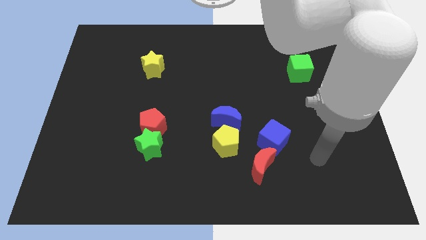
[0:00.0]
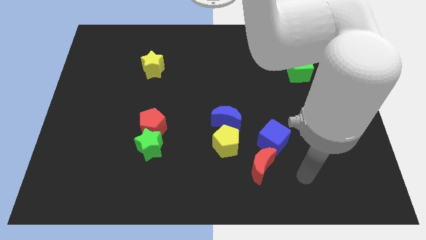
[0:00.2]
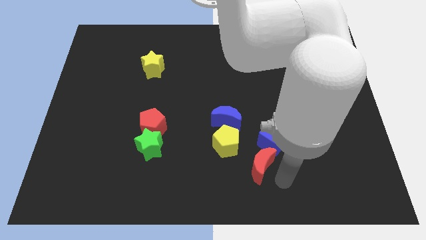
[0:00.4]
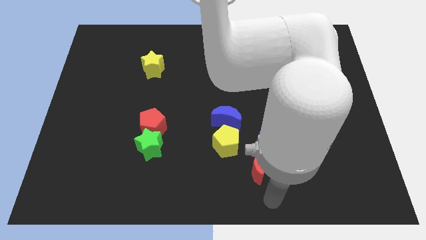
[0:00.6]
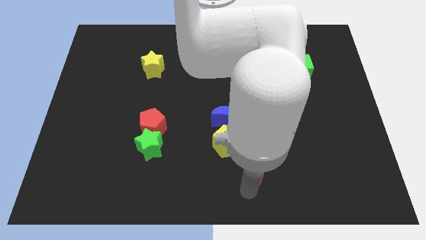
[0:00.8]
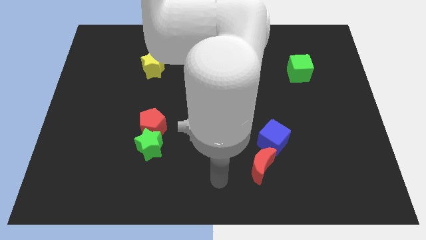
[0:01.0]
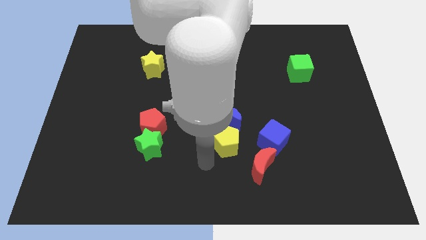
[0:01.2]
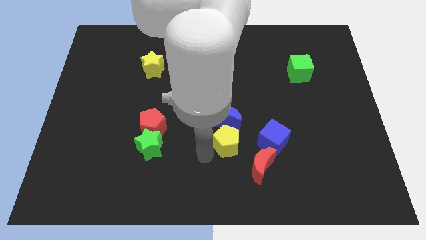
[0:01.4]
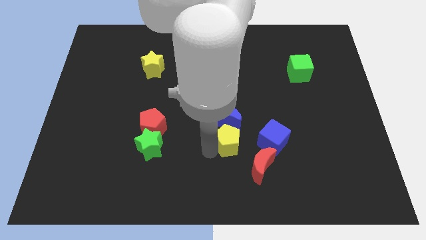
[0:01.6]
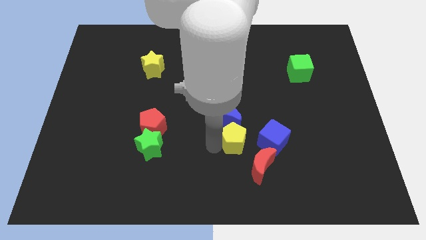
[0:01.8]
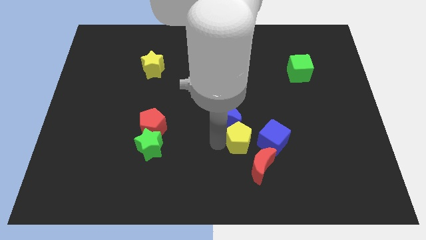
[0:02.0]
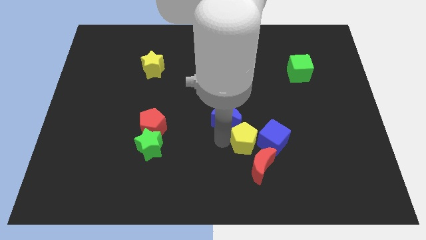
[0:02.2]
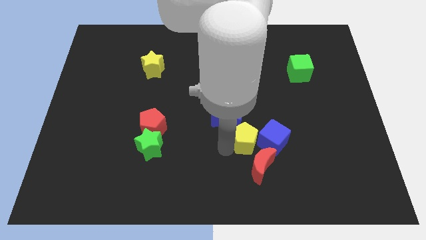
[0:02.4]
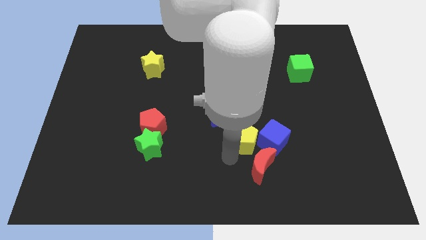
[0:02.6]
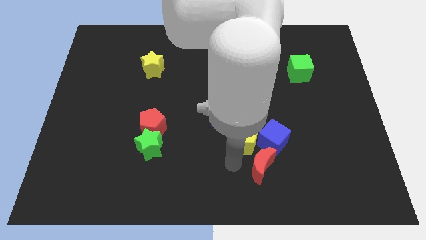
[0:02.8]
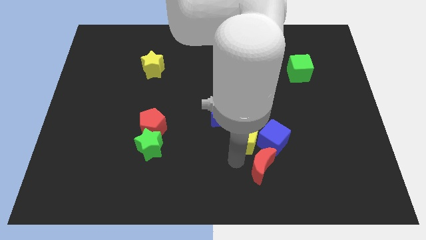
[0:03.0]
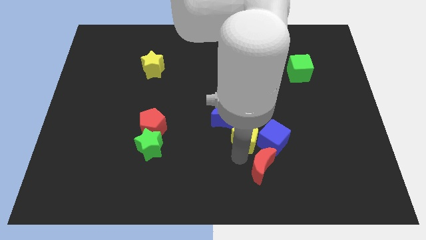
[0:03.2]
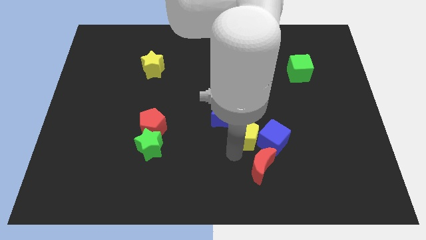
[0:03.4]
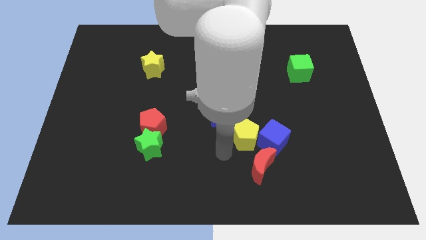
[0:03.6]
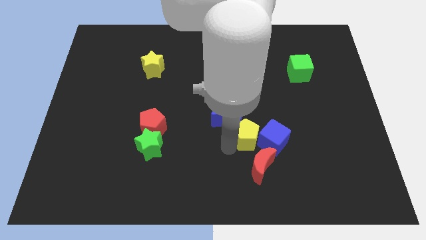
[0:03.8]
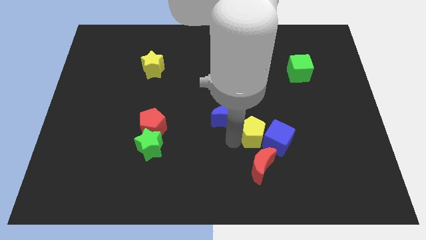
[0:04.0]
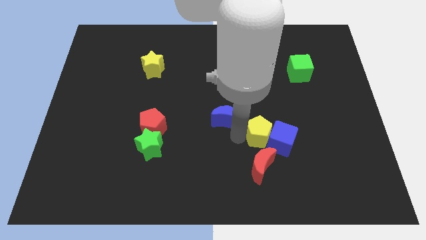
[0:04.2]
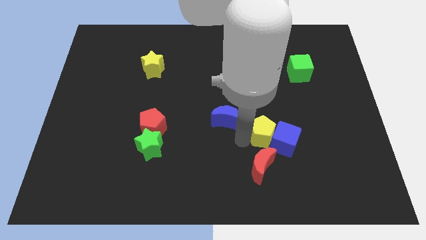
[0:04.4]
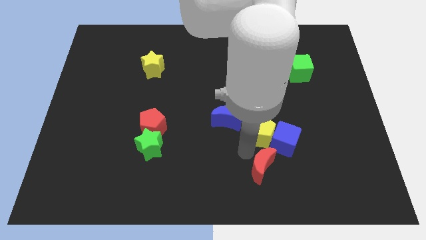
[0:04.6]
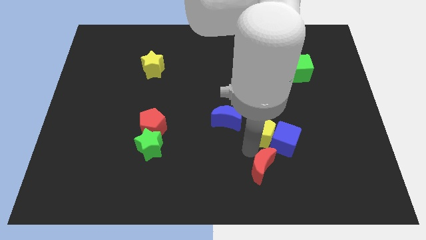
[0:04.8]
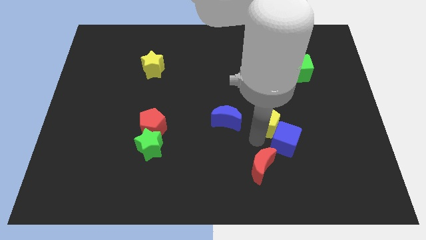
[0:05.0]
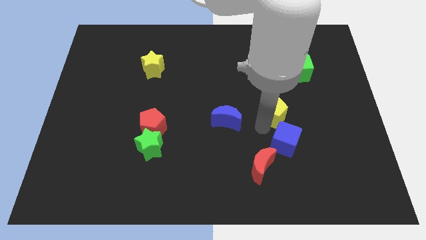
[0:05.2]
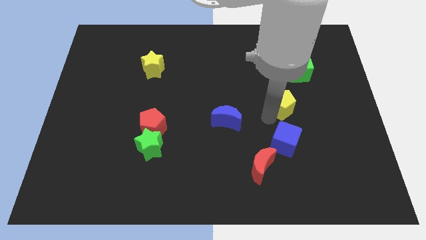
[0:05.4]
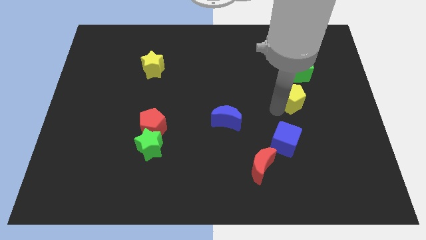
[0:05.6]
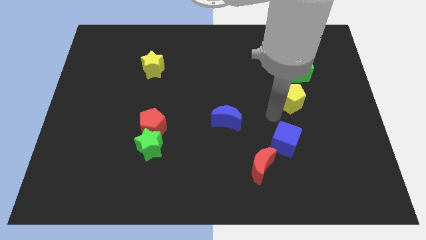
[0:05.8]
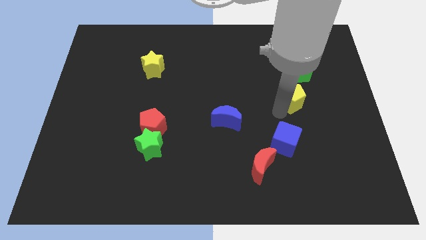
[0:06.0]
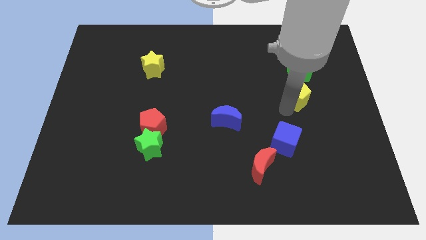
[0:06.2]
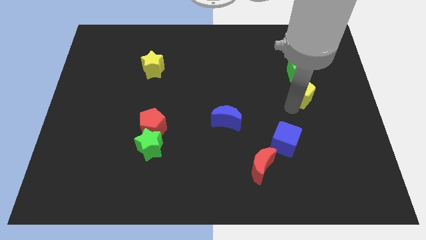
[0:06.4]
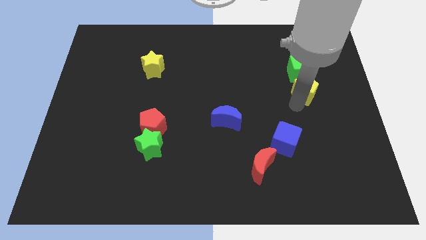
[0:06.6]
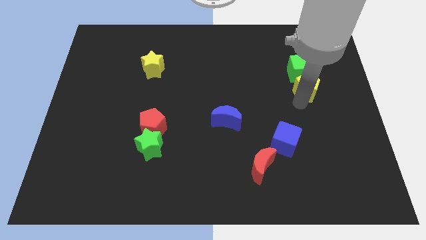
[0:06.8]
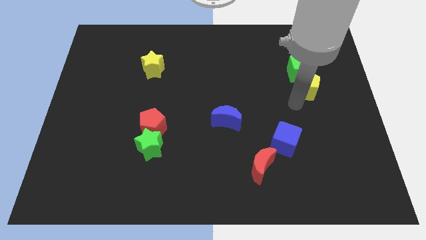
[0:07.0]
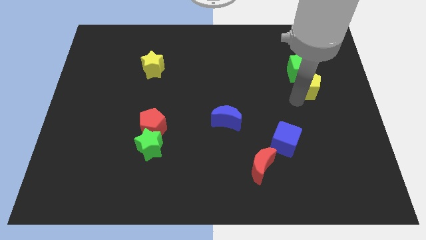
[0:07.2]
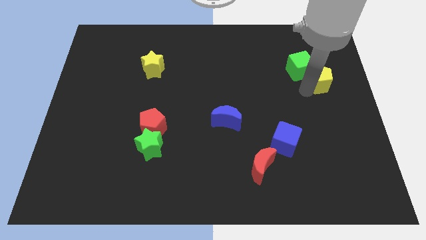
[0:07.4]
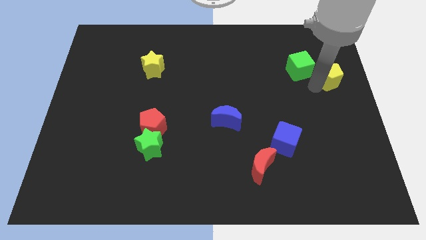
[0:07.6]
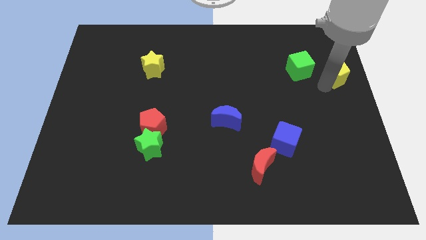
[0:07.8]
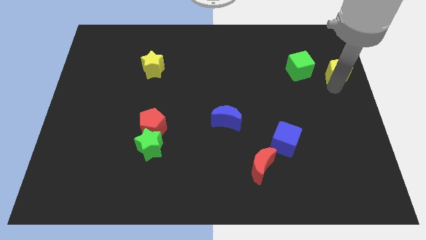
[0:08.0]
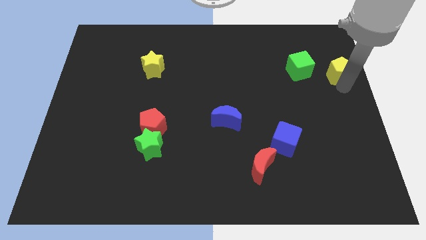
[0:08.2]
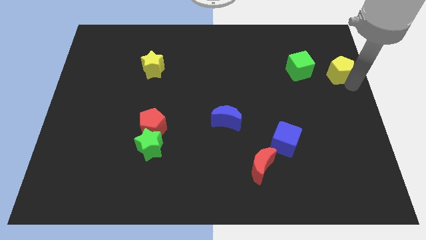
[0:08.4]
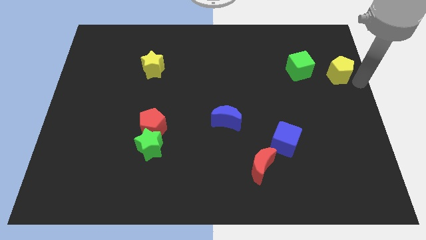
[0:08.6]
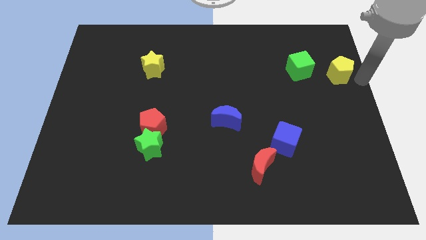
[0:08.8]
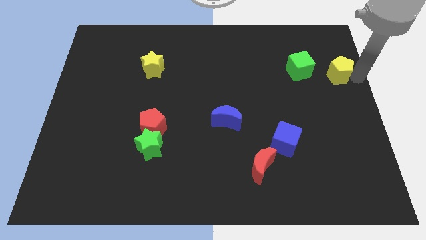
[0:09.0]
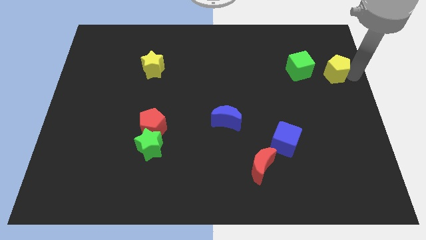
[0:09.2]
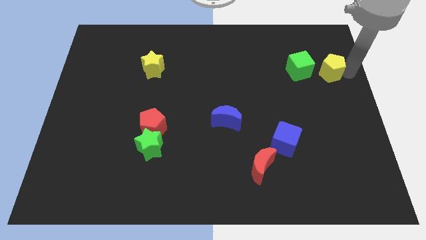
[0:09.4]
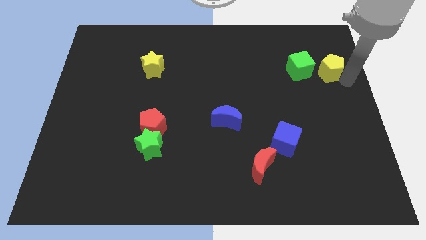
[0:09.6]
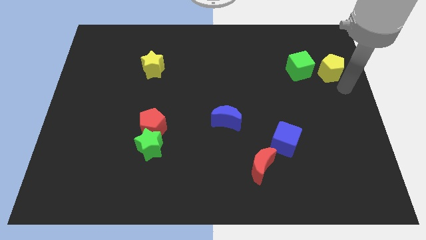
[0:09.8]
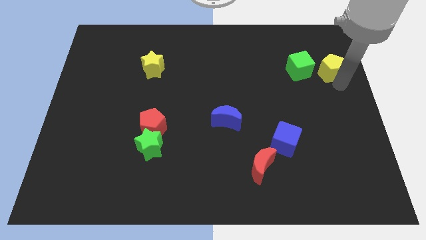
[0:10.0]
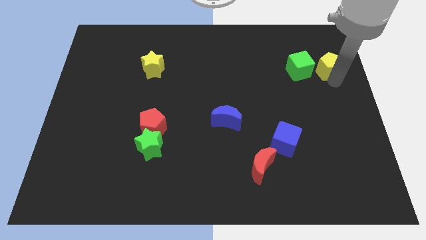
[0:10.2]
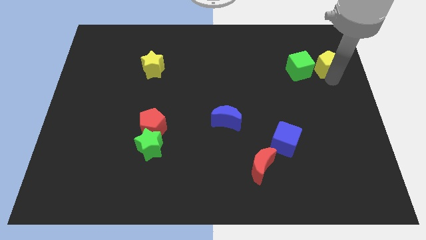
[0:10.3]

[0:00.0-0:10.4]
put the yellow pentagon to the top right side of the green cube

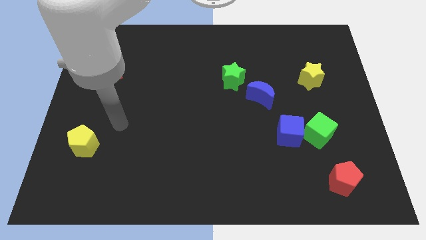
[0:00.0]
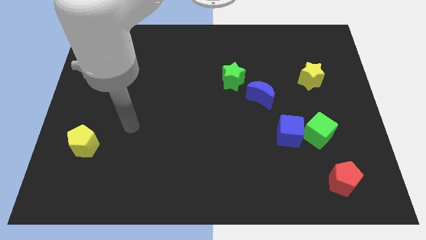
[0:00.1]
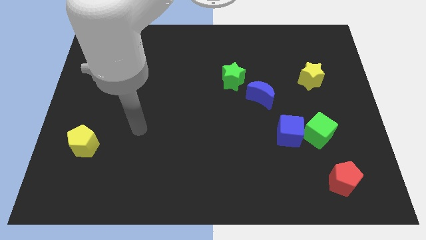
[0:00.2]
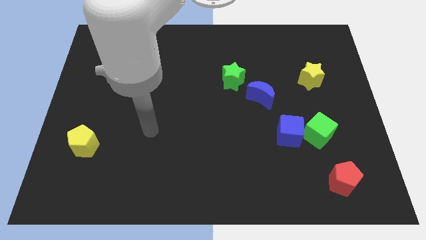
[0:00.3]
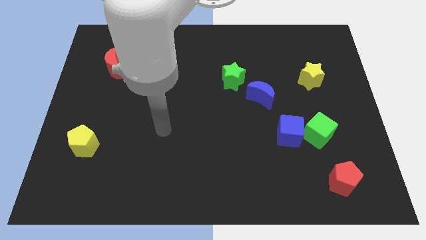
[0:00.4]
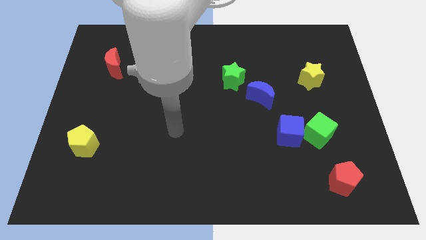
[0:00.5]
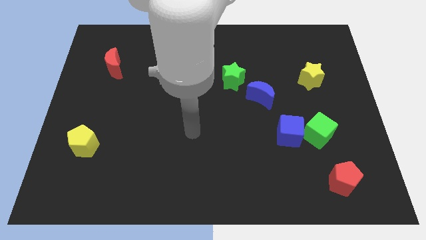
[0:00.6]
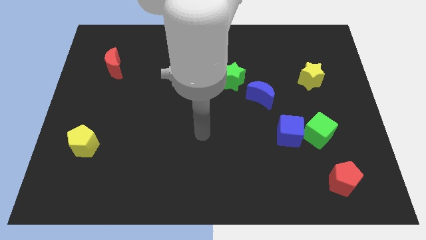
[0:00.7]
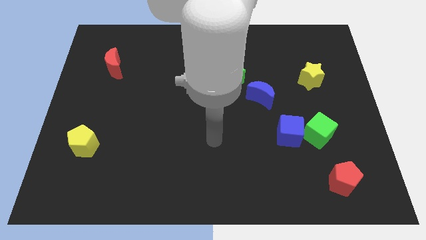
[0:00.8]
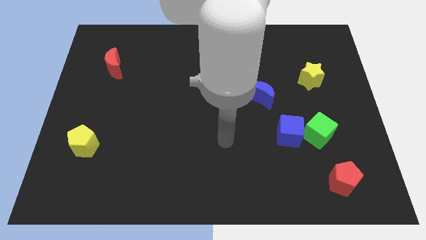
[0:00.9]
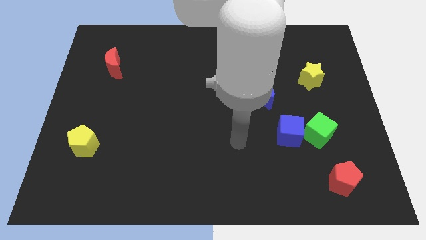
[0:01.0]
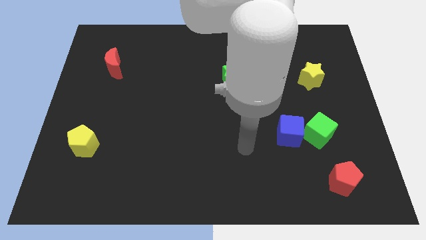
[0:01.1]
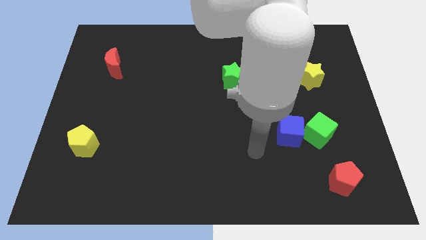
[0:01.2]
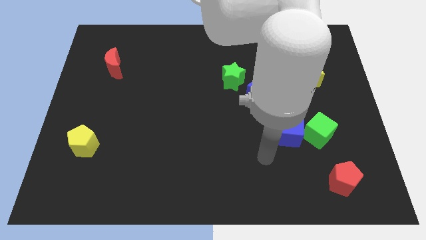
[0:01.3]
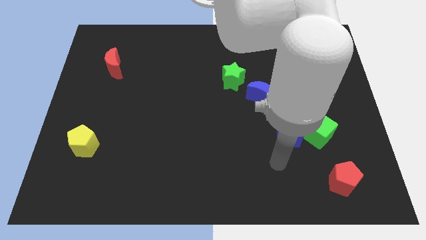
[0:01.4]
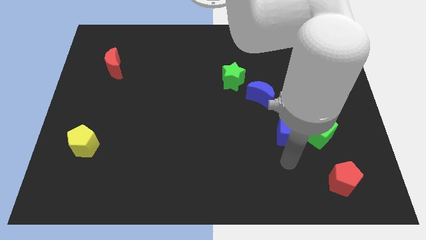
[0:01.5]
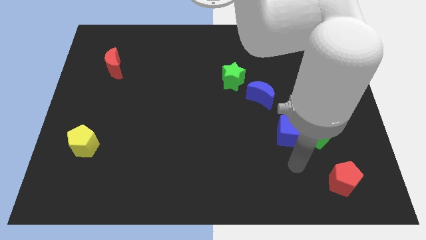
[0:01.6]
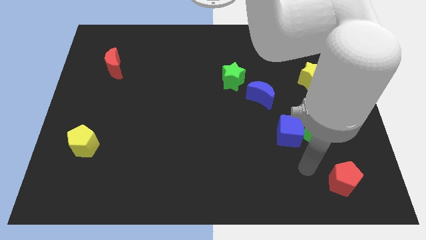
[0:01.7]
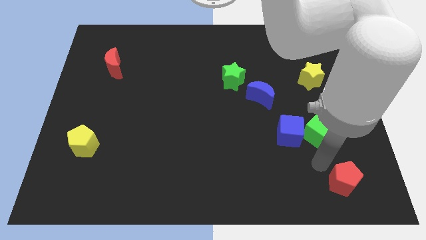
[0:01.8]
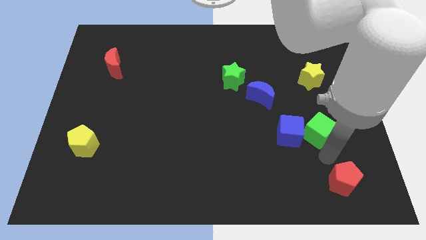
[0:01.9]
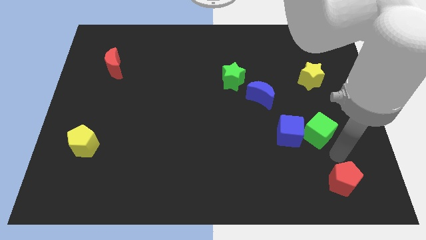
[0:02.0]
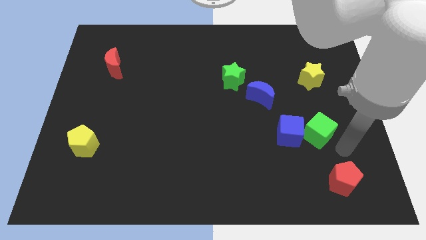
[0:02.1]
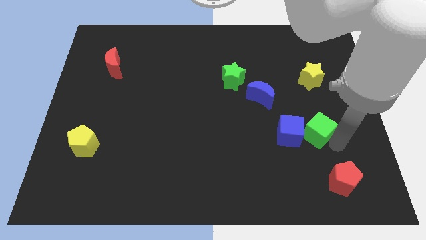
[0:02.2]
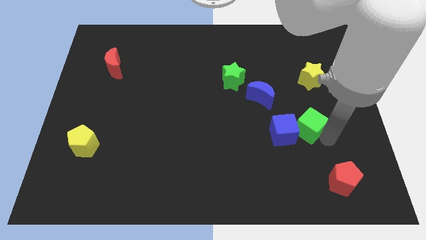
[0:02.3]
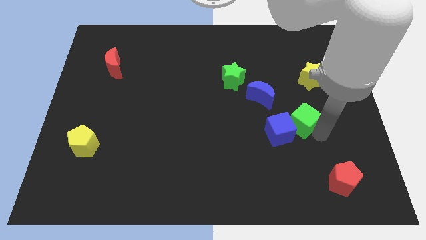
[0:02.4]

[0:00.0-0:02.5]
put the green cube to the bottom right side of the blue moon
